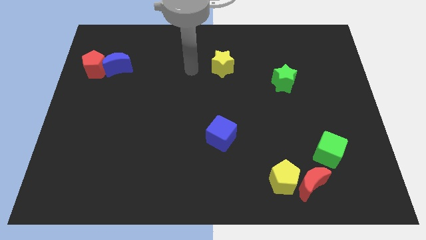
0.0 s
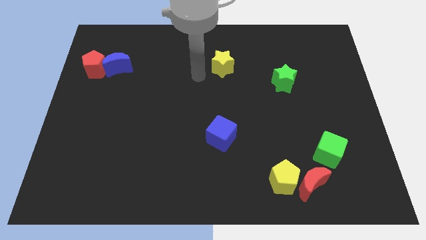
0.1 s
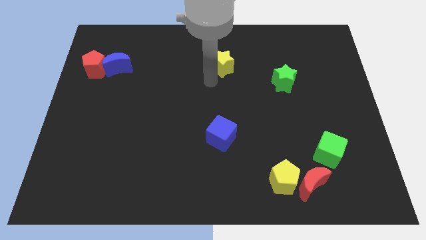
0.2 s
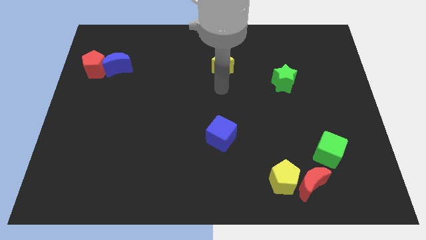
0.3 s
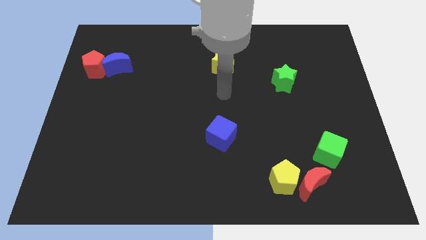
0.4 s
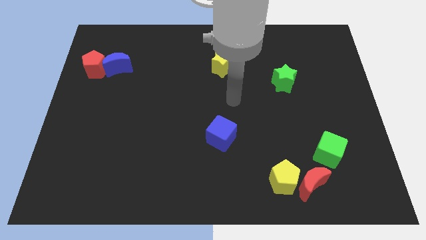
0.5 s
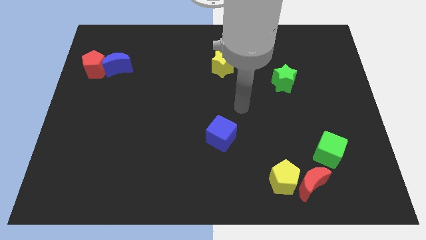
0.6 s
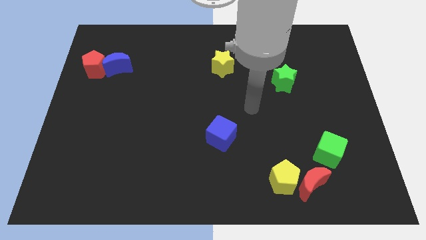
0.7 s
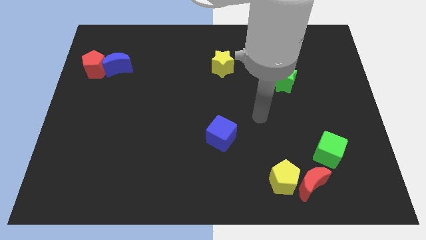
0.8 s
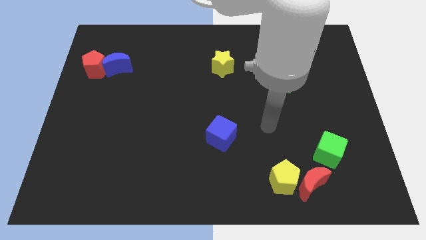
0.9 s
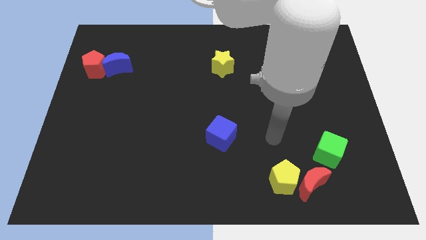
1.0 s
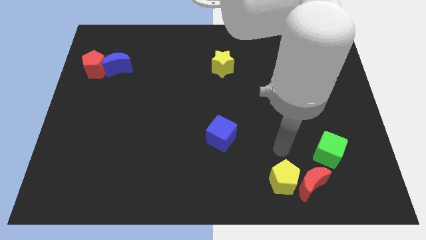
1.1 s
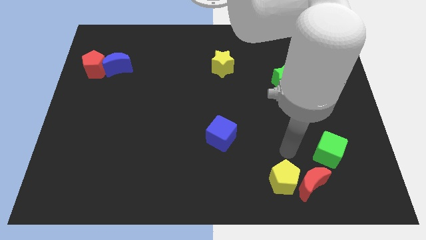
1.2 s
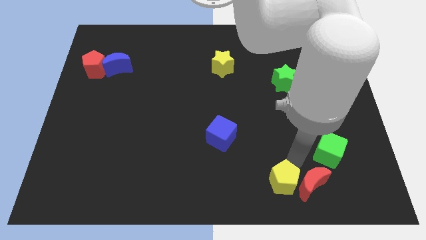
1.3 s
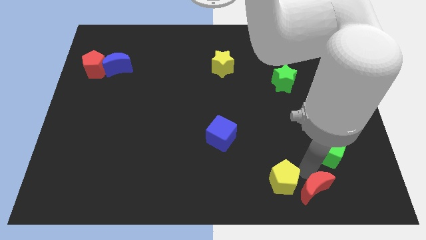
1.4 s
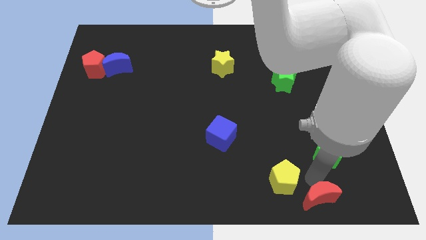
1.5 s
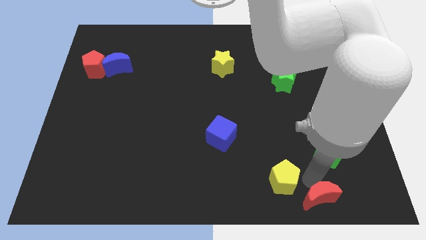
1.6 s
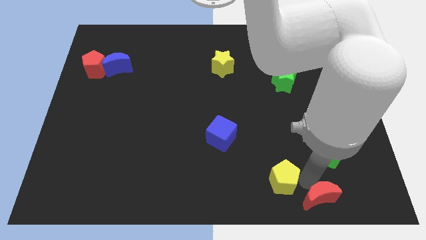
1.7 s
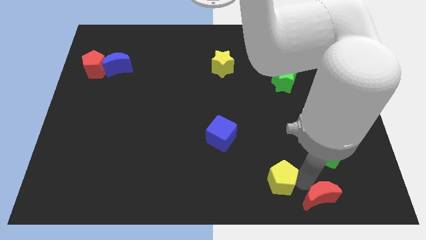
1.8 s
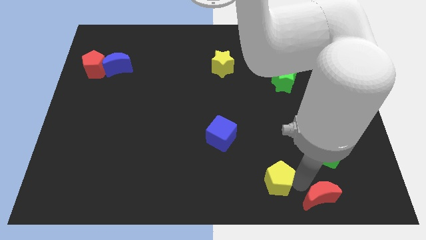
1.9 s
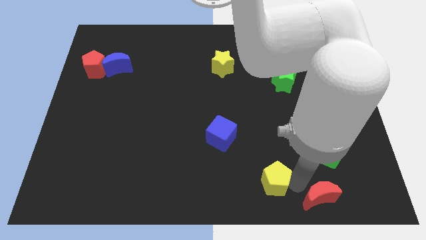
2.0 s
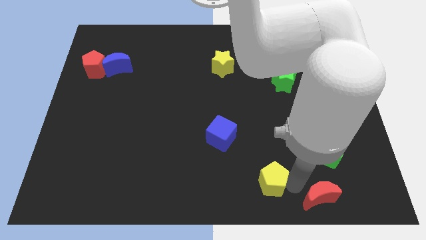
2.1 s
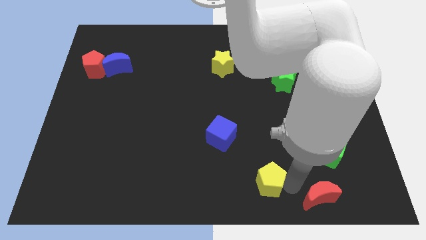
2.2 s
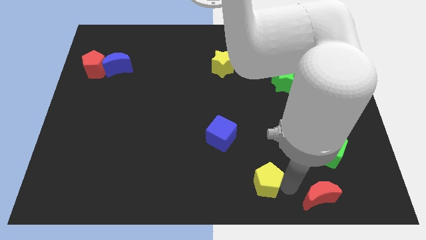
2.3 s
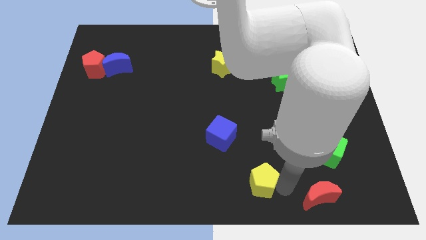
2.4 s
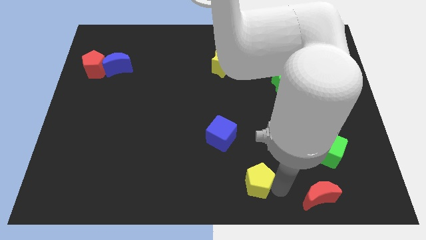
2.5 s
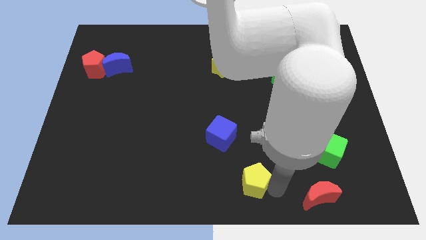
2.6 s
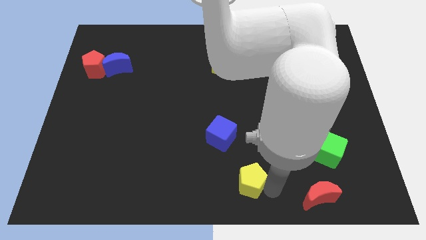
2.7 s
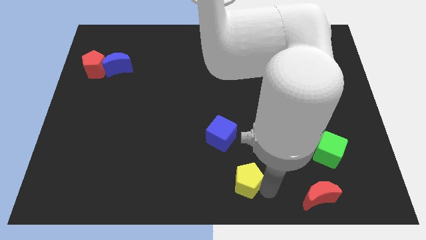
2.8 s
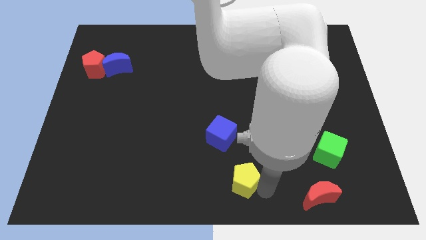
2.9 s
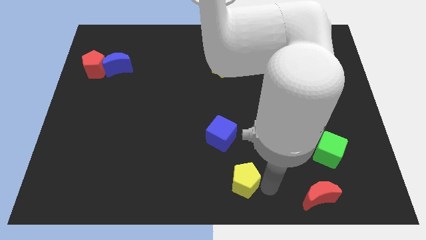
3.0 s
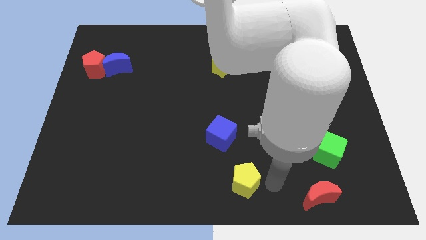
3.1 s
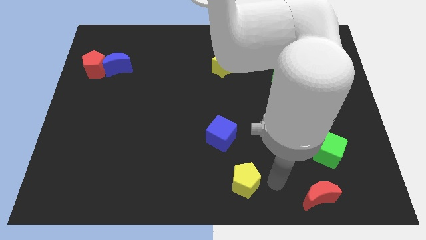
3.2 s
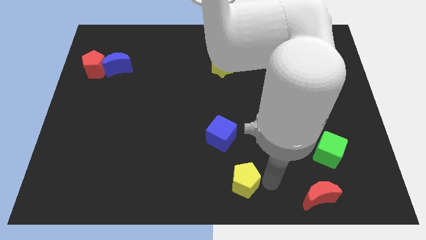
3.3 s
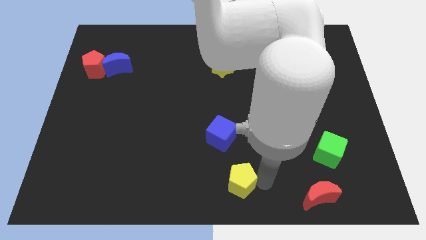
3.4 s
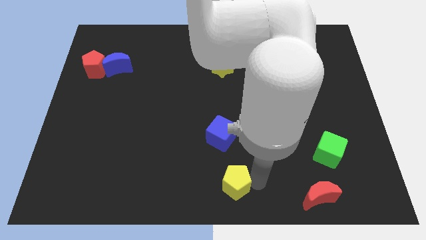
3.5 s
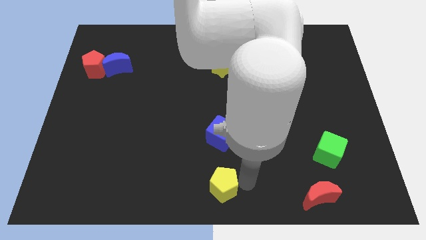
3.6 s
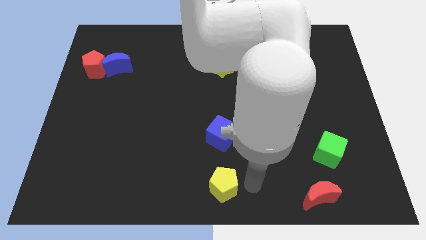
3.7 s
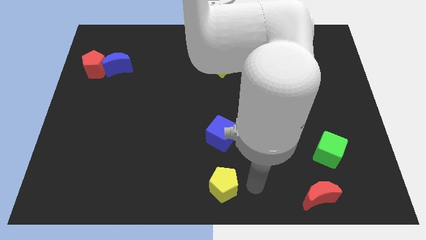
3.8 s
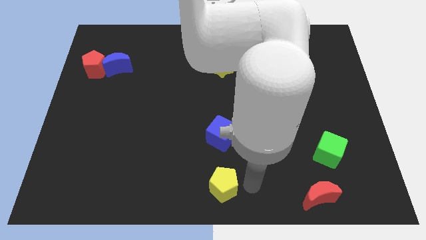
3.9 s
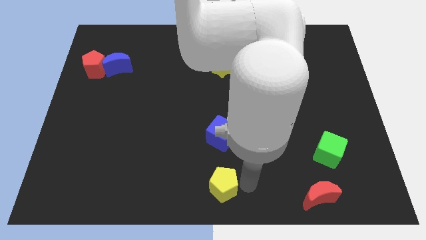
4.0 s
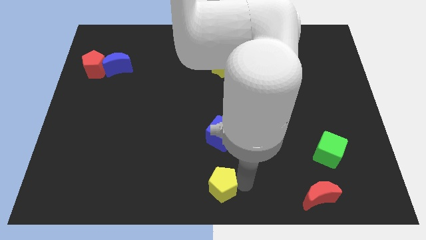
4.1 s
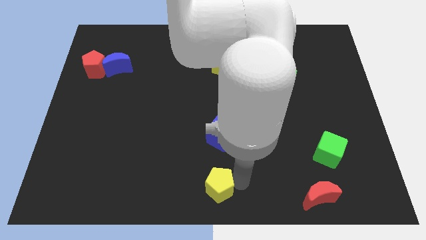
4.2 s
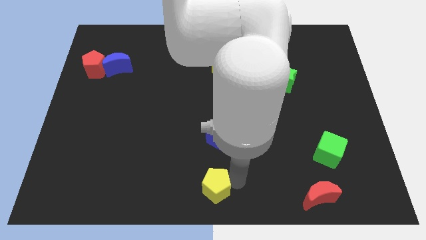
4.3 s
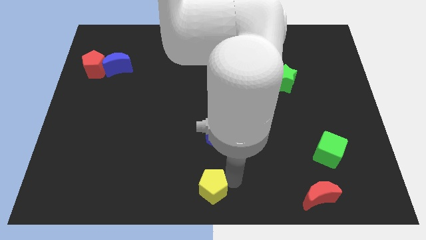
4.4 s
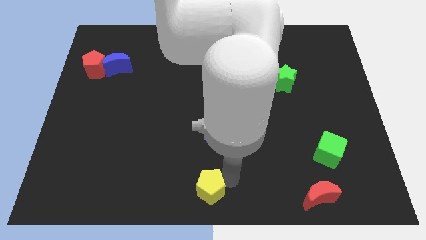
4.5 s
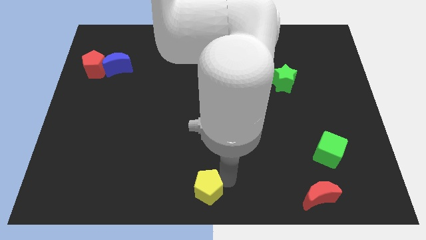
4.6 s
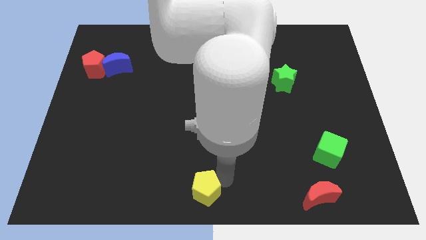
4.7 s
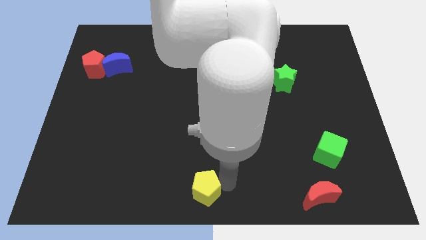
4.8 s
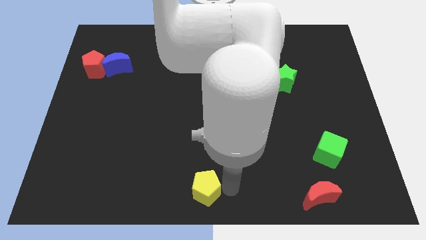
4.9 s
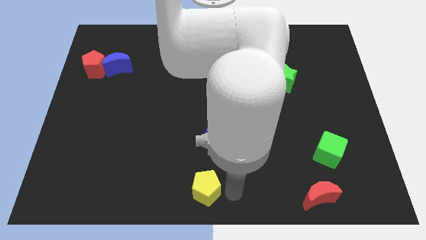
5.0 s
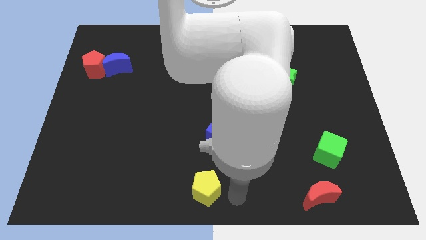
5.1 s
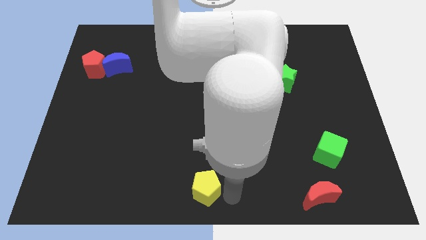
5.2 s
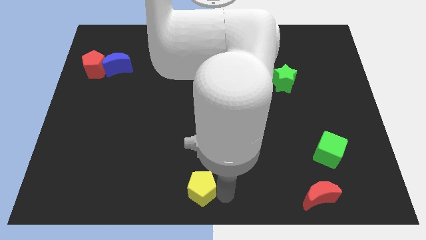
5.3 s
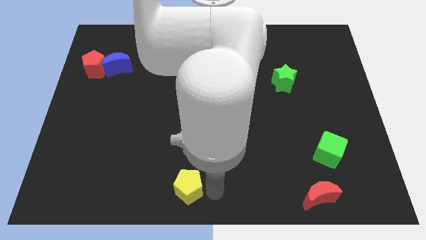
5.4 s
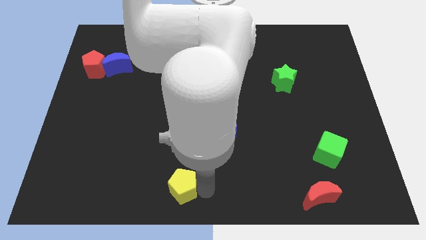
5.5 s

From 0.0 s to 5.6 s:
slide the yellow pentagon to the left

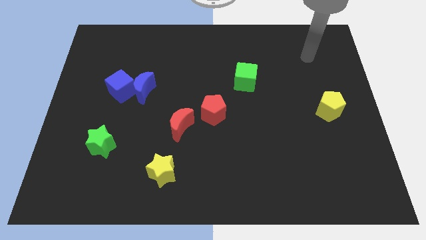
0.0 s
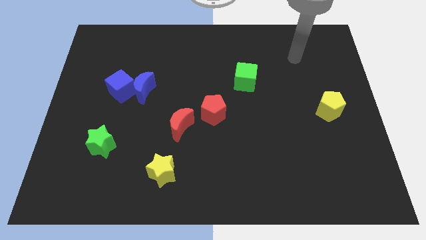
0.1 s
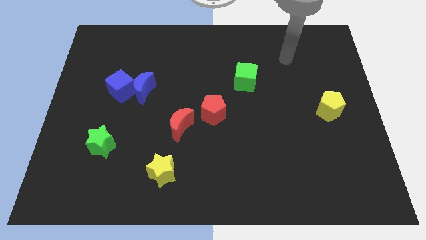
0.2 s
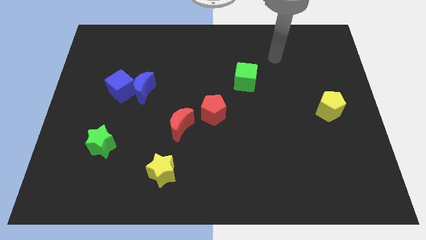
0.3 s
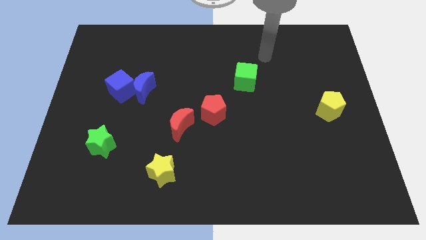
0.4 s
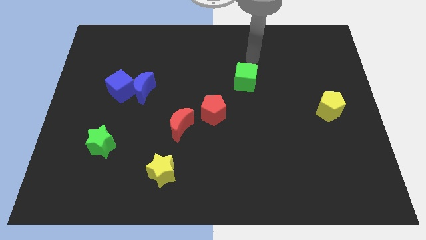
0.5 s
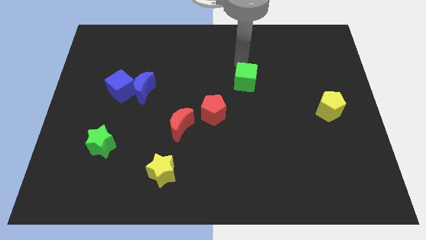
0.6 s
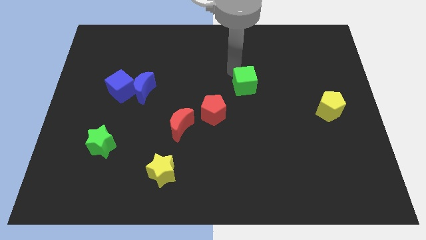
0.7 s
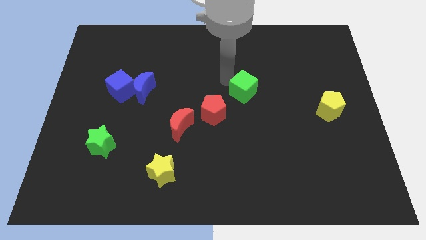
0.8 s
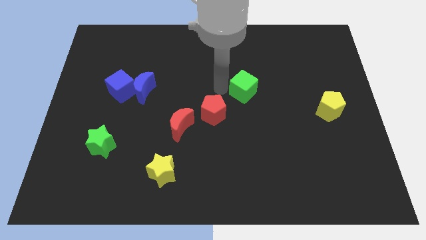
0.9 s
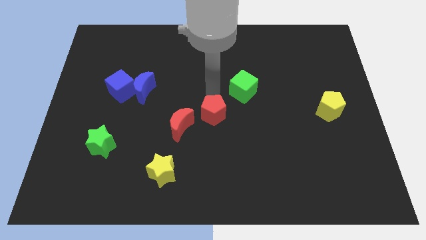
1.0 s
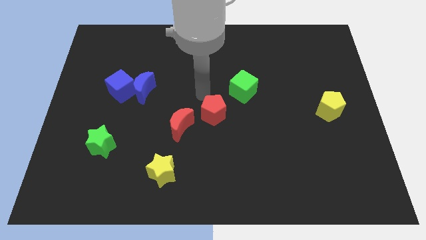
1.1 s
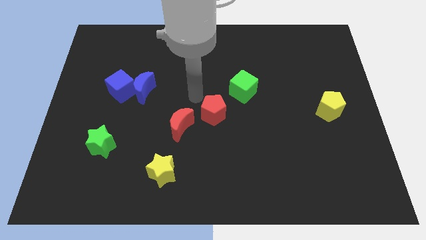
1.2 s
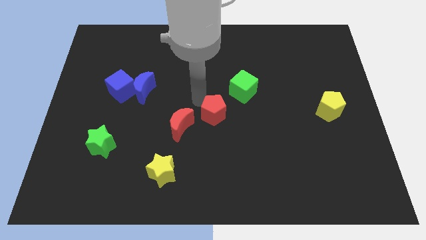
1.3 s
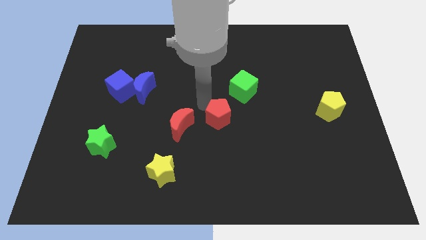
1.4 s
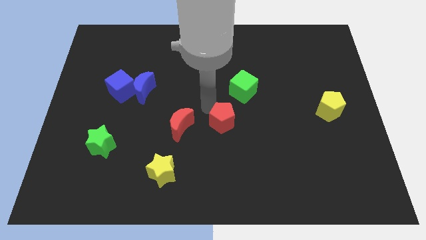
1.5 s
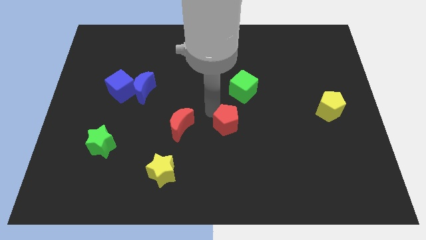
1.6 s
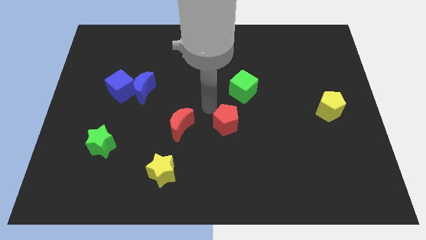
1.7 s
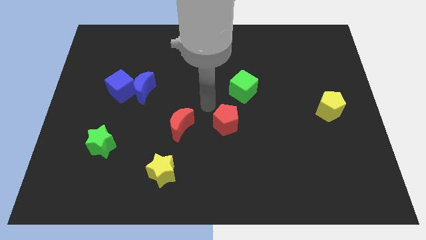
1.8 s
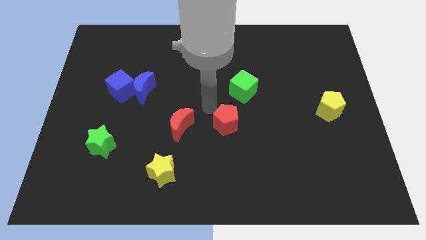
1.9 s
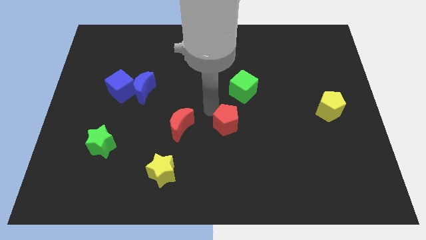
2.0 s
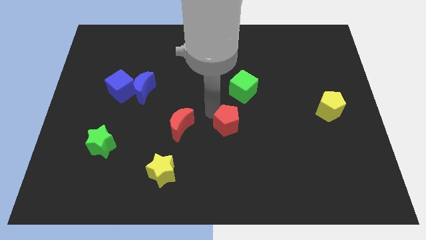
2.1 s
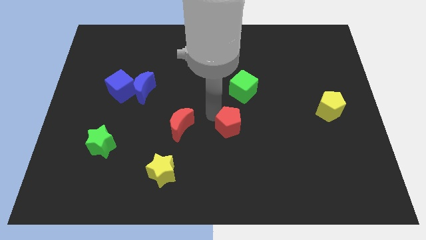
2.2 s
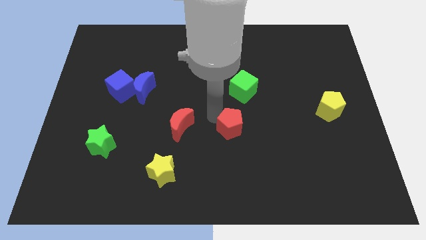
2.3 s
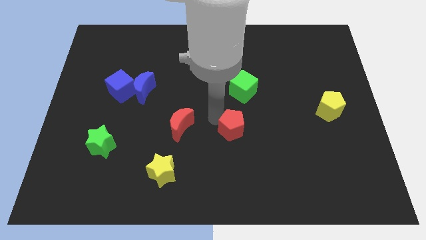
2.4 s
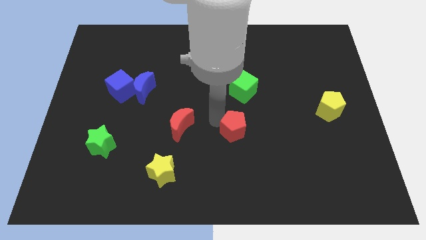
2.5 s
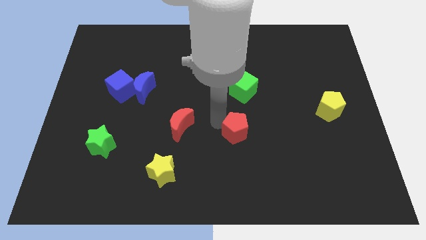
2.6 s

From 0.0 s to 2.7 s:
slightly move the red pentagon down and then to the right
